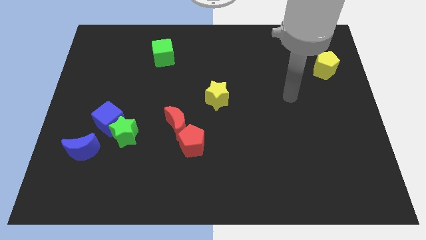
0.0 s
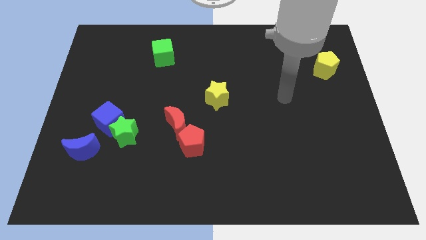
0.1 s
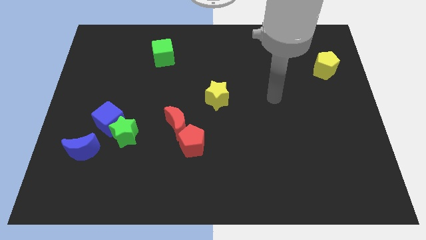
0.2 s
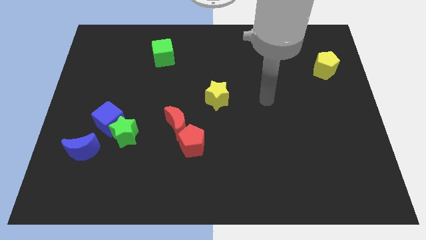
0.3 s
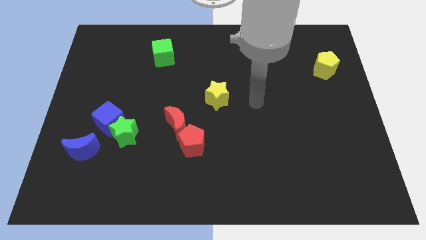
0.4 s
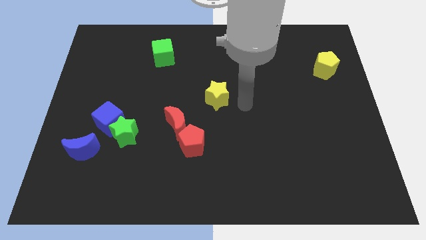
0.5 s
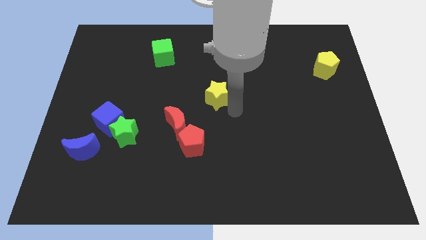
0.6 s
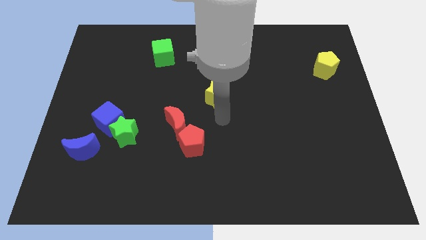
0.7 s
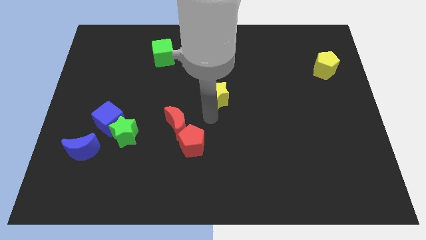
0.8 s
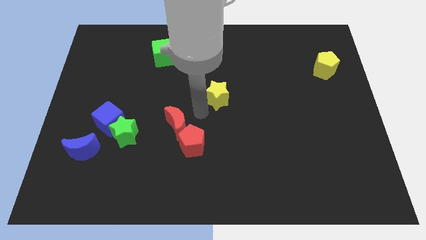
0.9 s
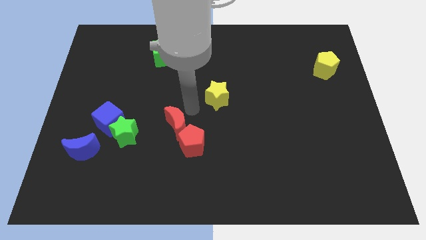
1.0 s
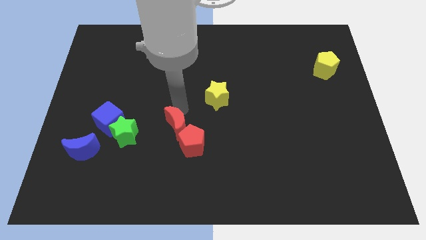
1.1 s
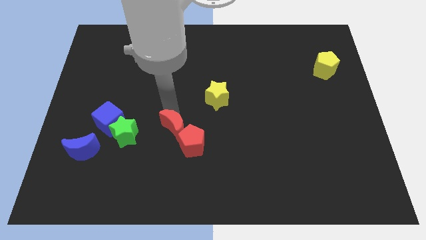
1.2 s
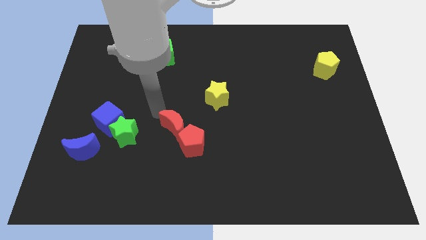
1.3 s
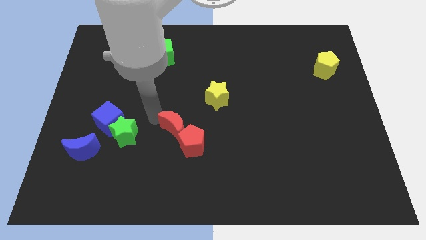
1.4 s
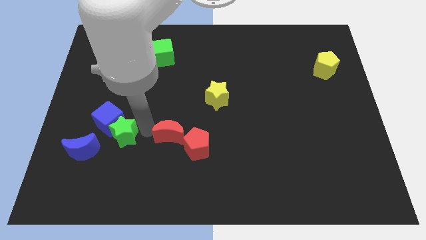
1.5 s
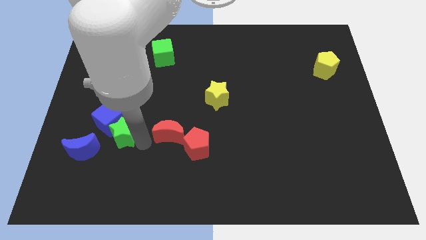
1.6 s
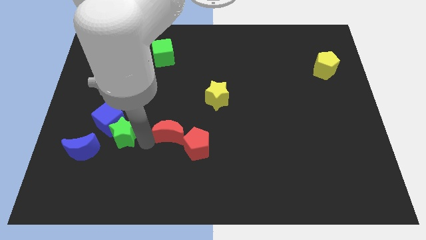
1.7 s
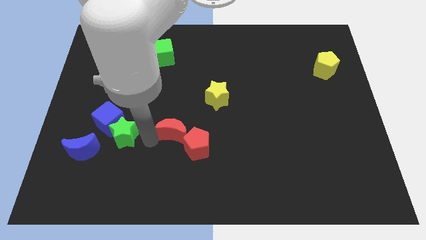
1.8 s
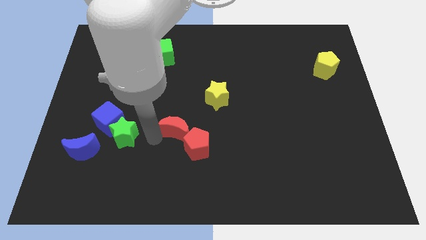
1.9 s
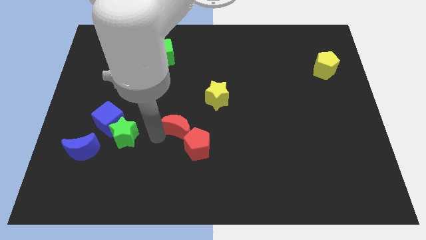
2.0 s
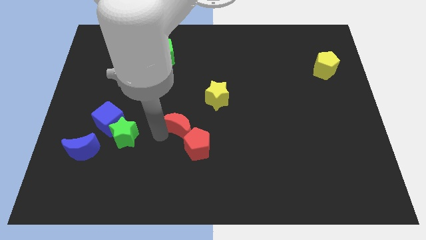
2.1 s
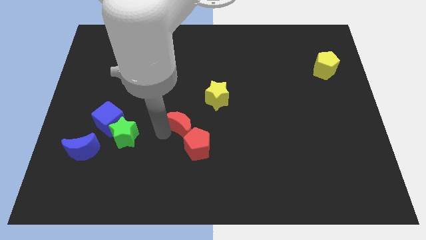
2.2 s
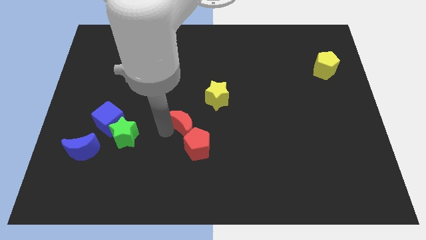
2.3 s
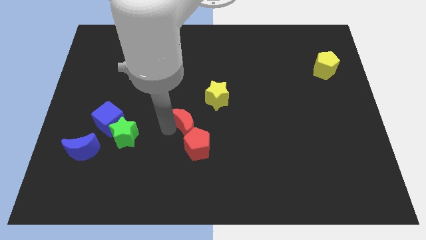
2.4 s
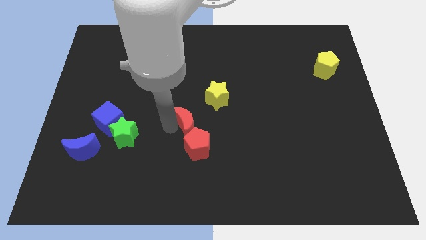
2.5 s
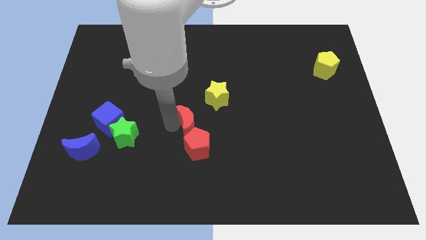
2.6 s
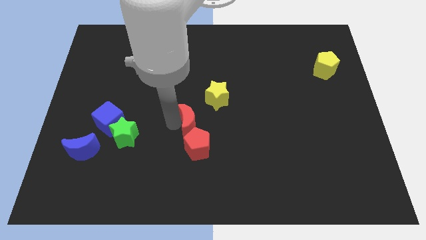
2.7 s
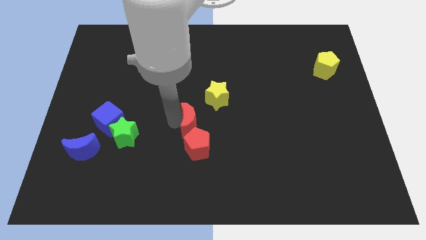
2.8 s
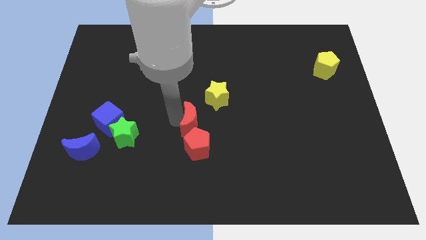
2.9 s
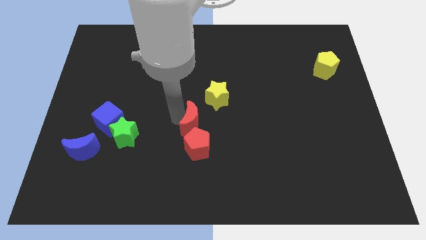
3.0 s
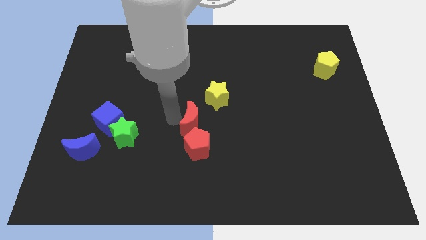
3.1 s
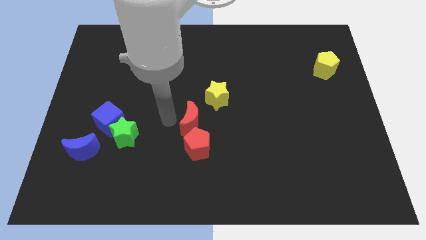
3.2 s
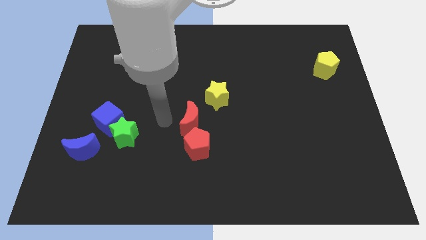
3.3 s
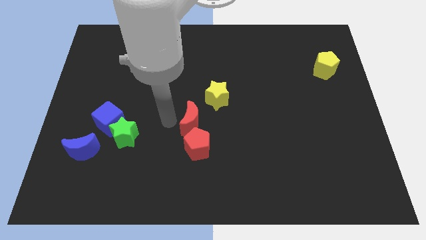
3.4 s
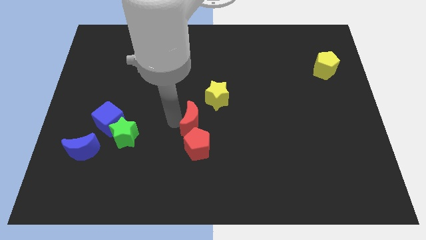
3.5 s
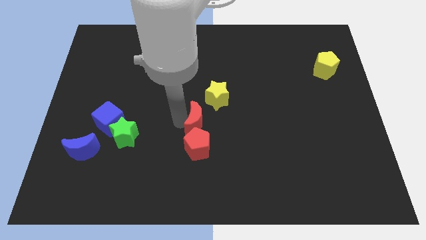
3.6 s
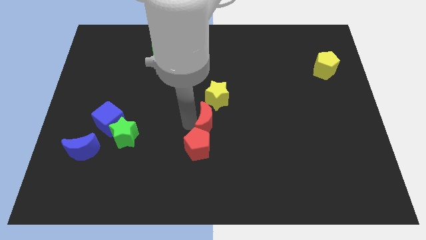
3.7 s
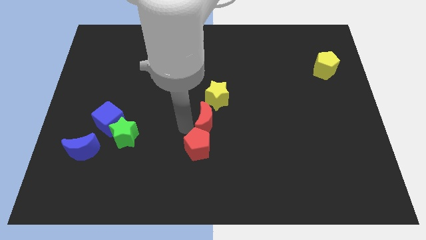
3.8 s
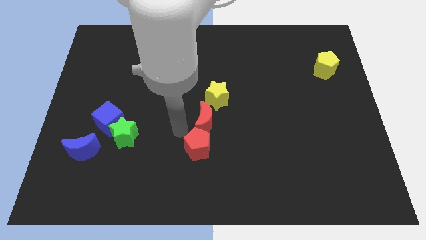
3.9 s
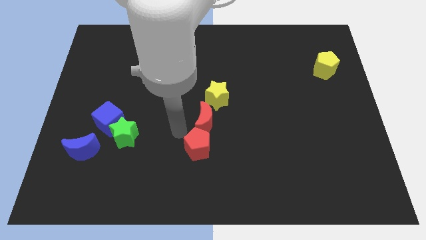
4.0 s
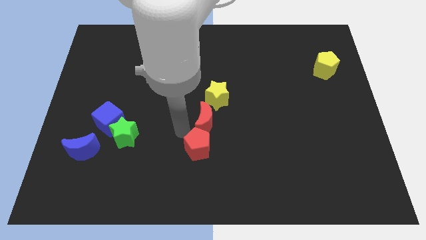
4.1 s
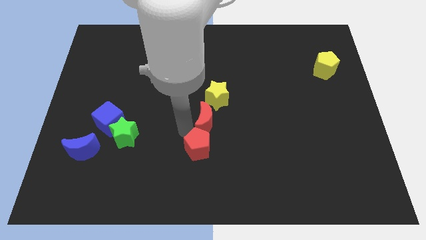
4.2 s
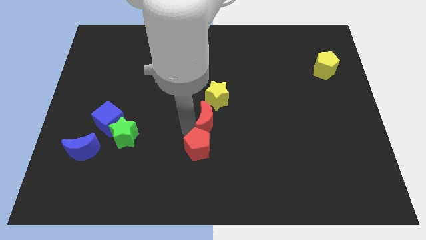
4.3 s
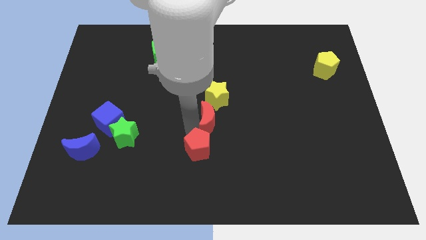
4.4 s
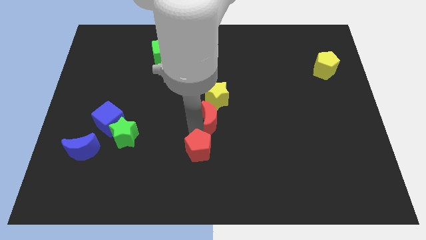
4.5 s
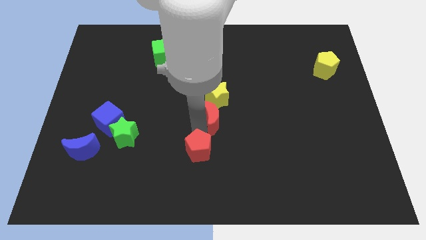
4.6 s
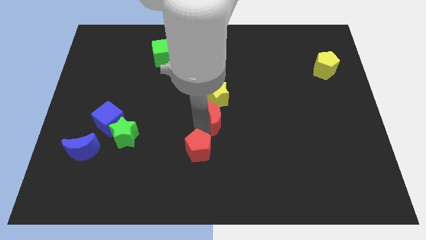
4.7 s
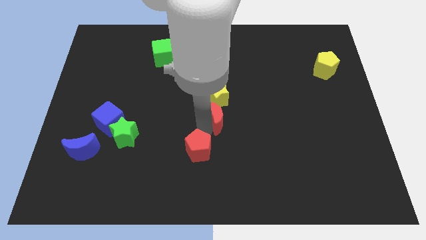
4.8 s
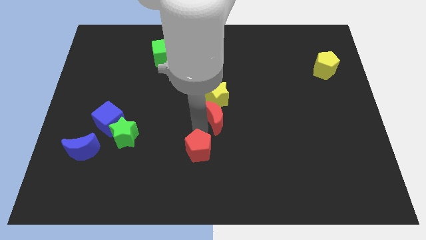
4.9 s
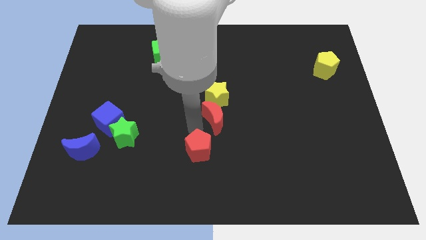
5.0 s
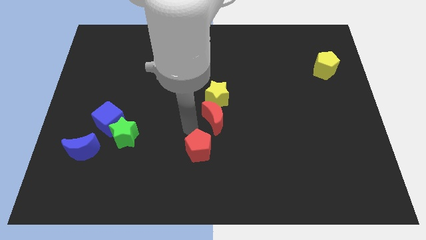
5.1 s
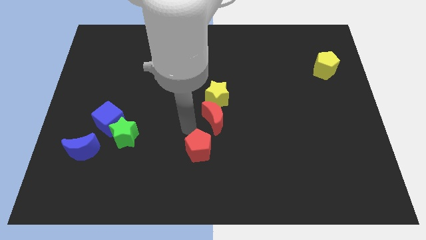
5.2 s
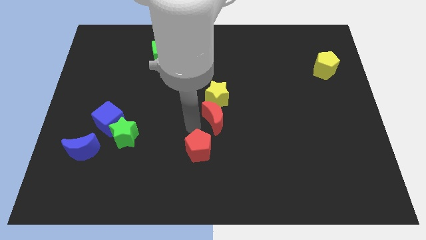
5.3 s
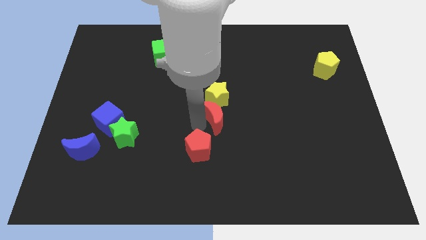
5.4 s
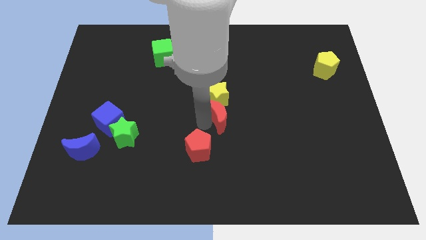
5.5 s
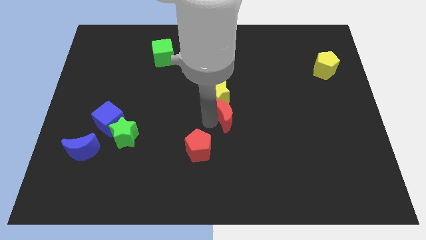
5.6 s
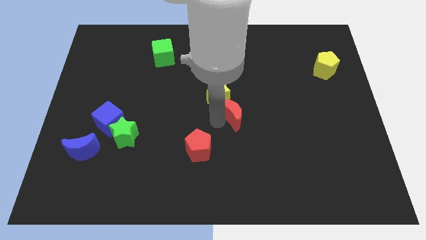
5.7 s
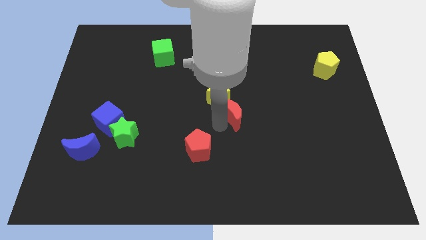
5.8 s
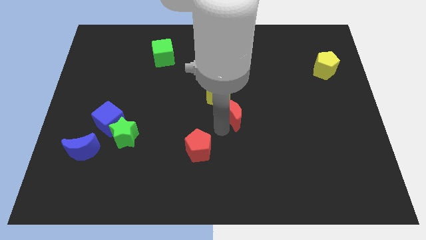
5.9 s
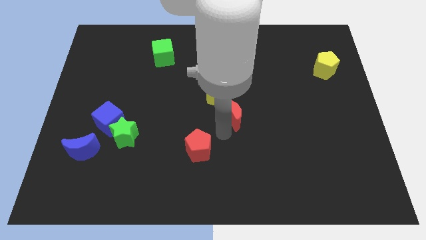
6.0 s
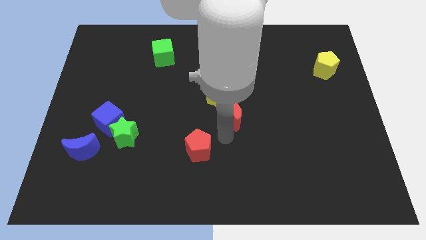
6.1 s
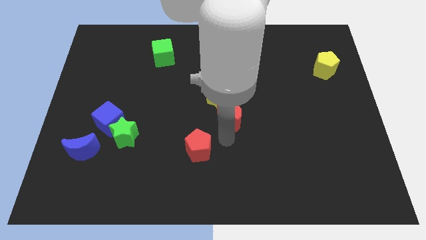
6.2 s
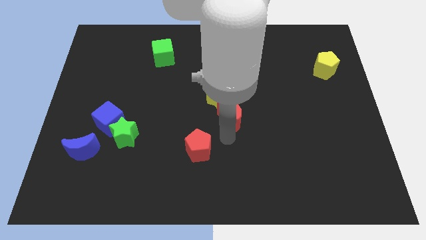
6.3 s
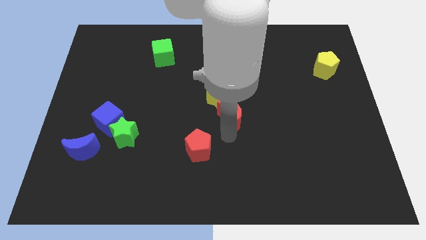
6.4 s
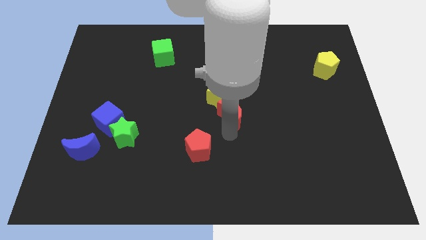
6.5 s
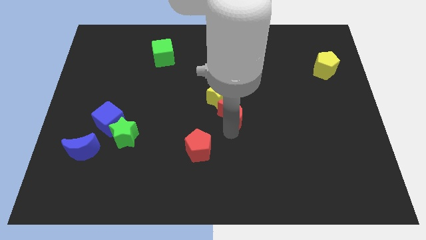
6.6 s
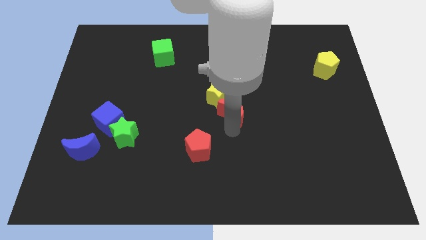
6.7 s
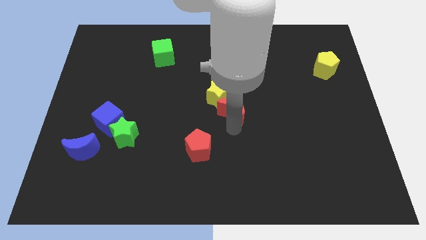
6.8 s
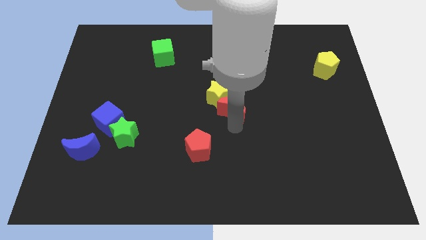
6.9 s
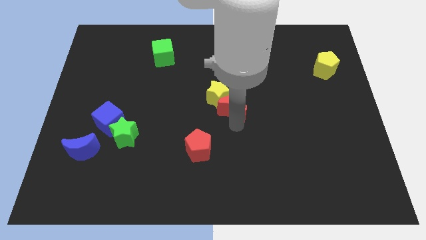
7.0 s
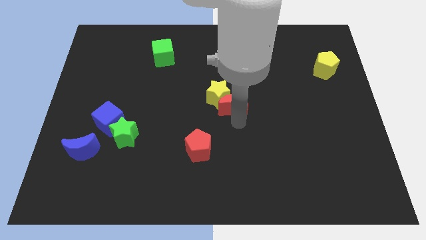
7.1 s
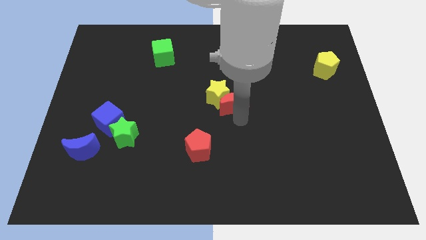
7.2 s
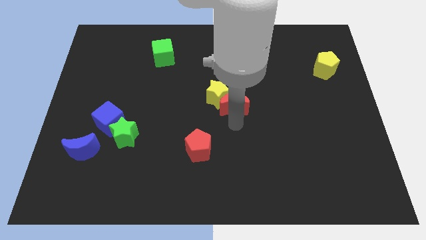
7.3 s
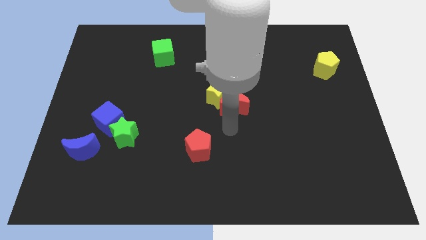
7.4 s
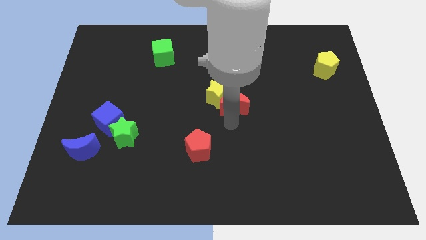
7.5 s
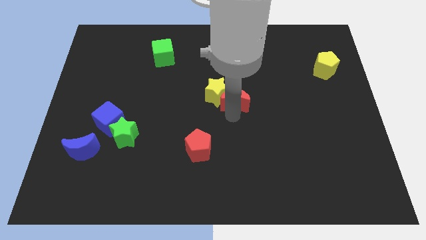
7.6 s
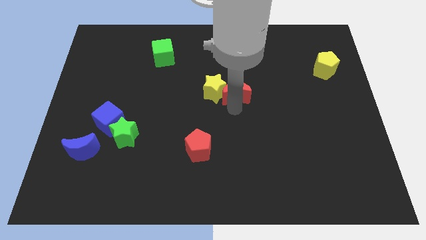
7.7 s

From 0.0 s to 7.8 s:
put the red moon diagonally up and to the right of the yellow star
